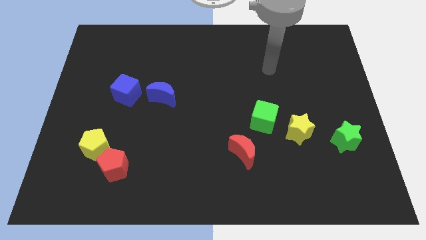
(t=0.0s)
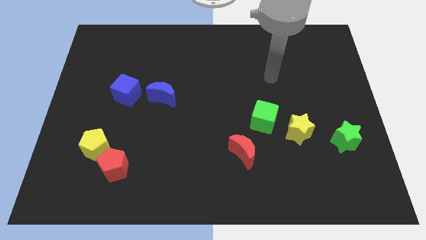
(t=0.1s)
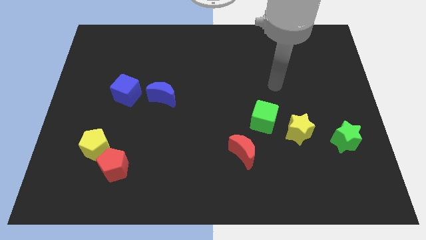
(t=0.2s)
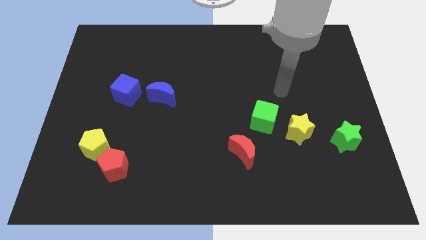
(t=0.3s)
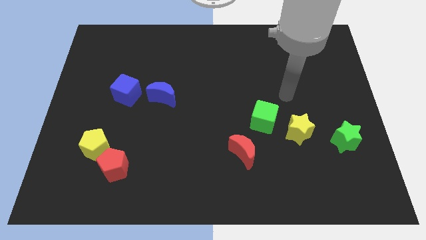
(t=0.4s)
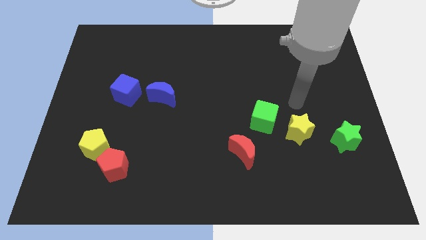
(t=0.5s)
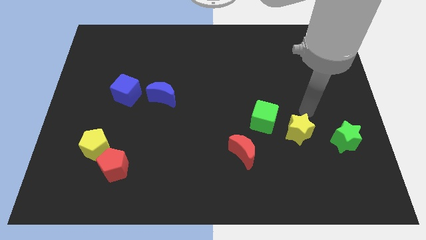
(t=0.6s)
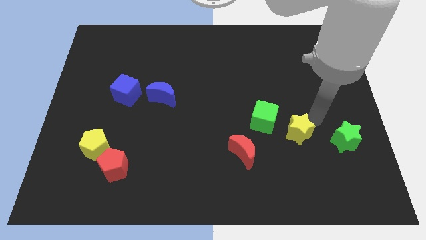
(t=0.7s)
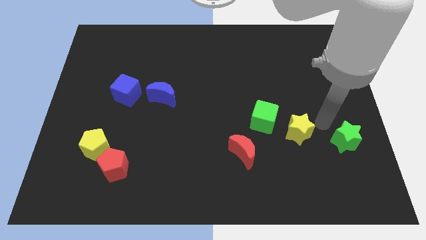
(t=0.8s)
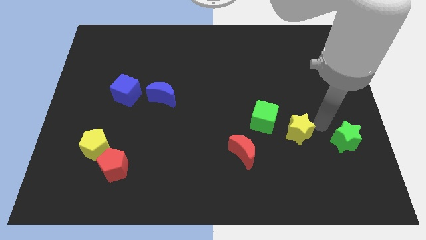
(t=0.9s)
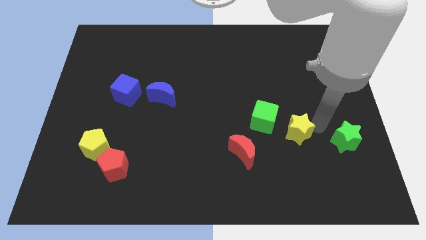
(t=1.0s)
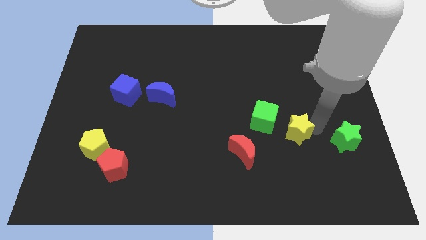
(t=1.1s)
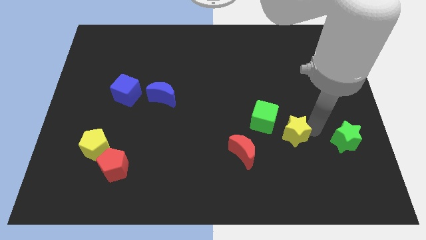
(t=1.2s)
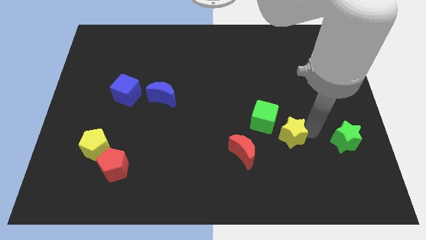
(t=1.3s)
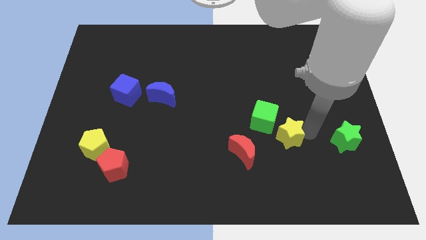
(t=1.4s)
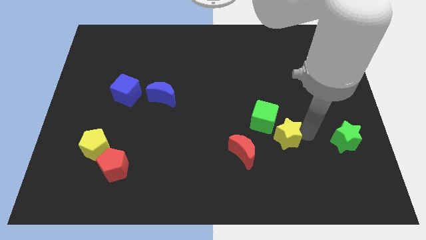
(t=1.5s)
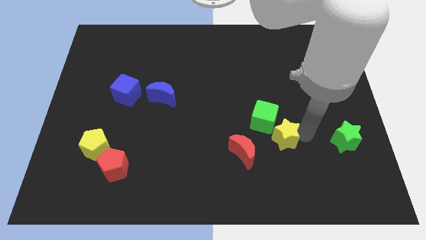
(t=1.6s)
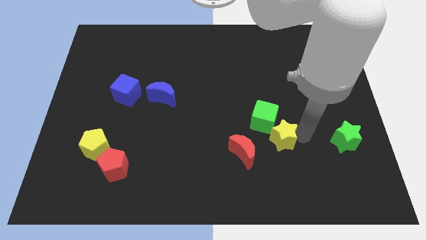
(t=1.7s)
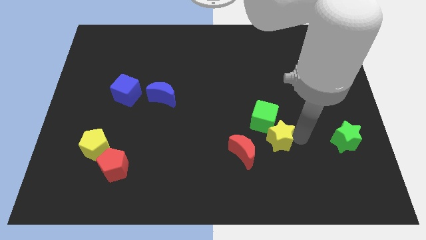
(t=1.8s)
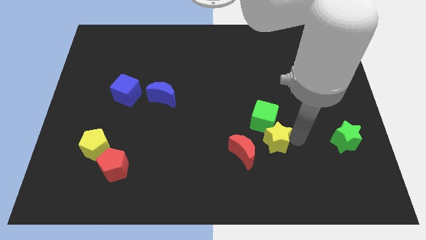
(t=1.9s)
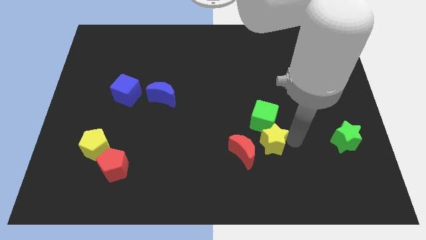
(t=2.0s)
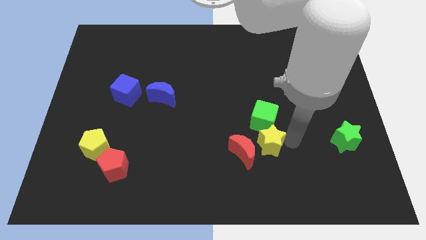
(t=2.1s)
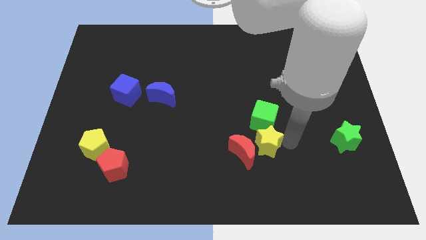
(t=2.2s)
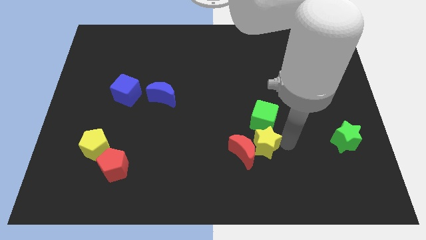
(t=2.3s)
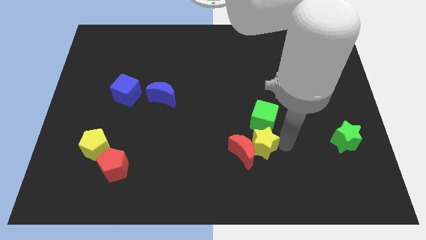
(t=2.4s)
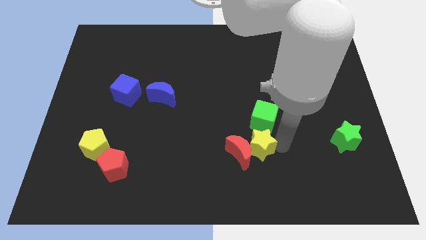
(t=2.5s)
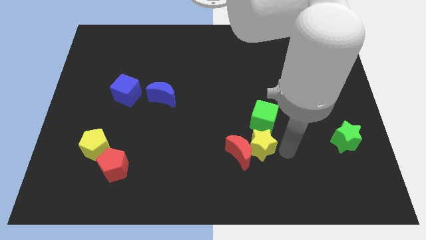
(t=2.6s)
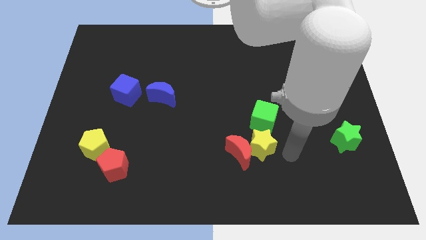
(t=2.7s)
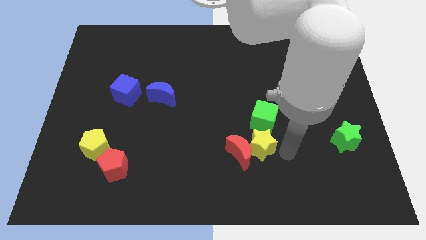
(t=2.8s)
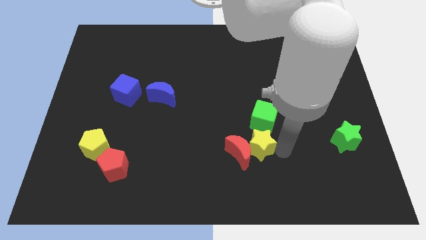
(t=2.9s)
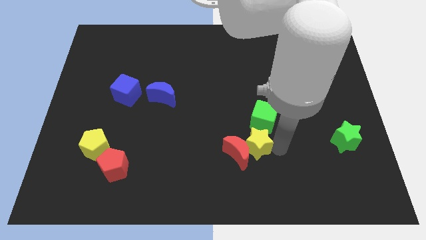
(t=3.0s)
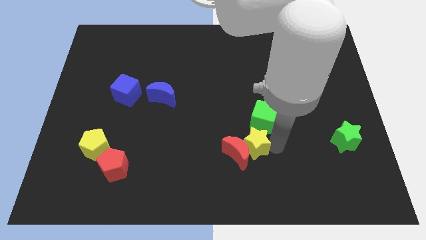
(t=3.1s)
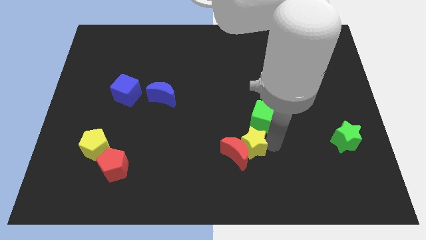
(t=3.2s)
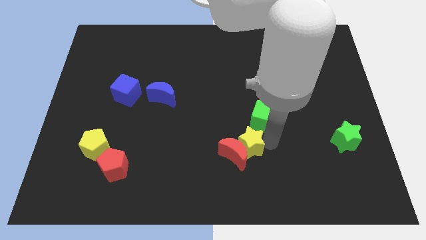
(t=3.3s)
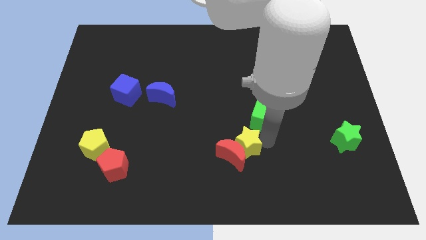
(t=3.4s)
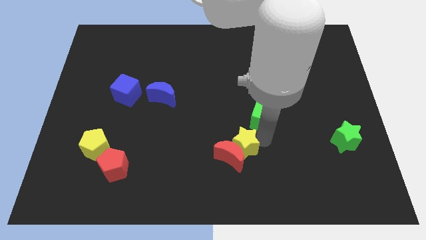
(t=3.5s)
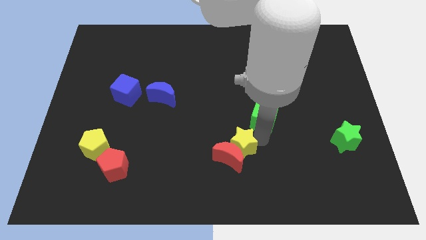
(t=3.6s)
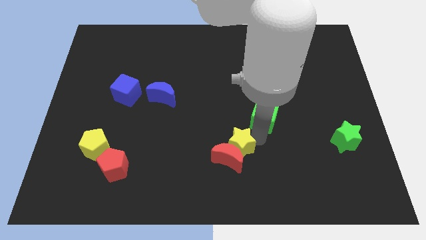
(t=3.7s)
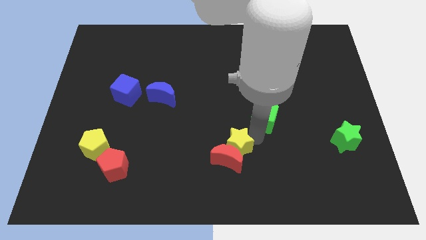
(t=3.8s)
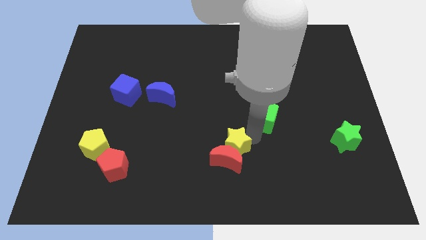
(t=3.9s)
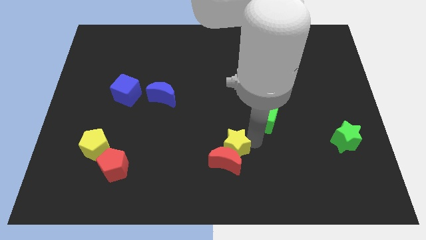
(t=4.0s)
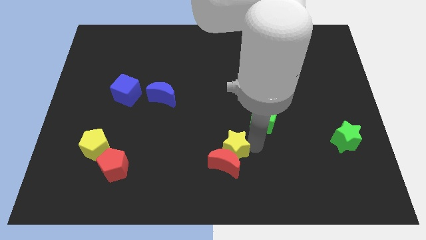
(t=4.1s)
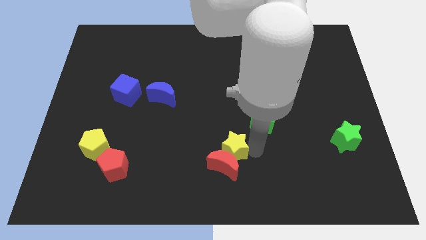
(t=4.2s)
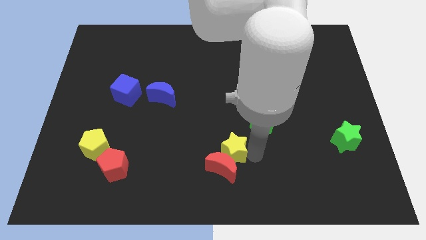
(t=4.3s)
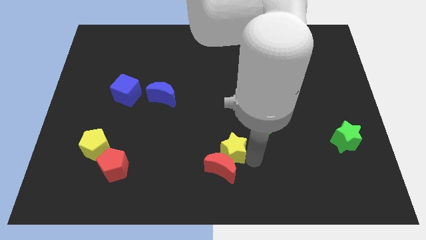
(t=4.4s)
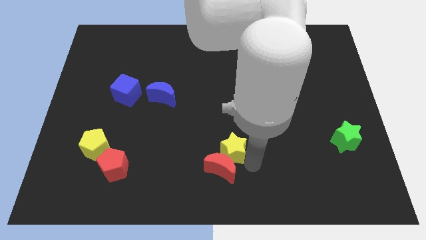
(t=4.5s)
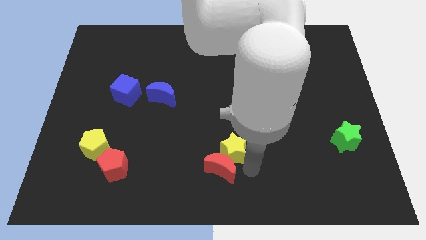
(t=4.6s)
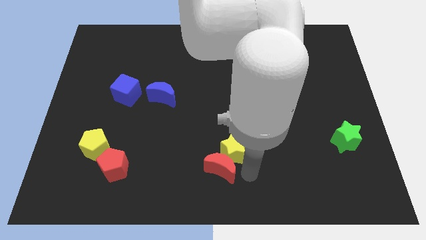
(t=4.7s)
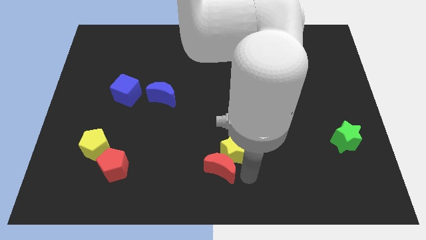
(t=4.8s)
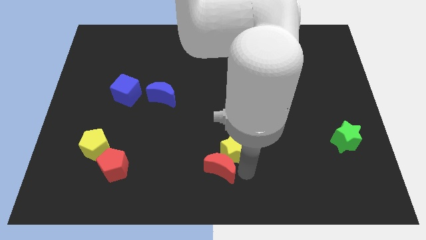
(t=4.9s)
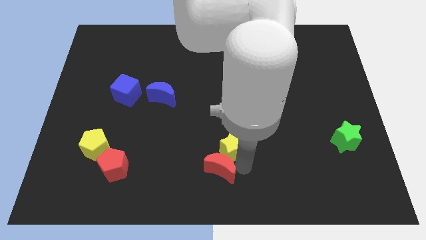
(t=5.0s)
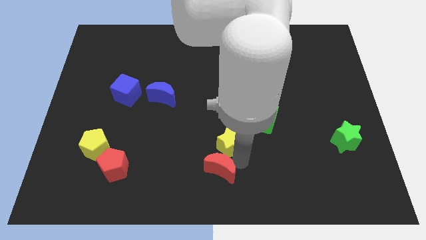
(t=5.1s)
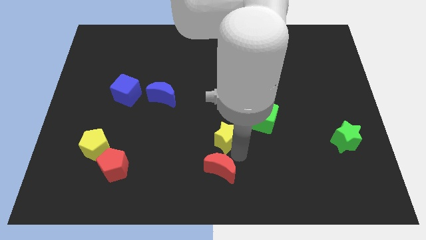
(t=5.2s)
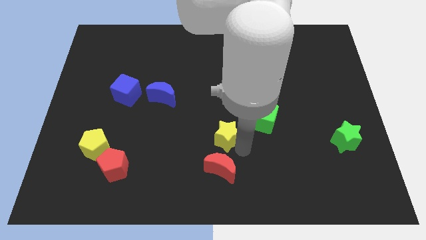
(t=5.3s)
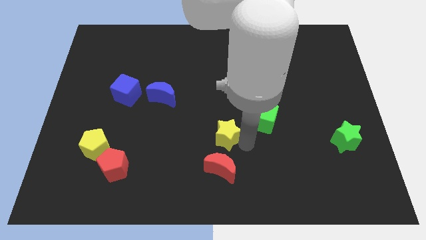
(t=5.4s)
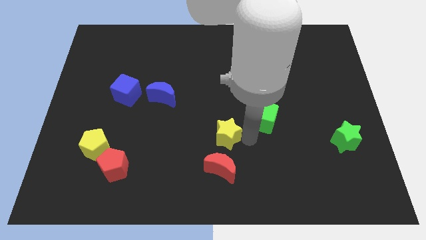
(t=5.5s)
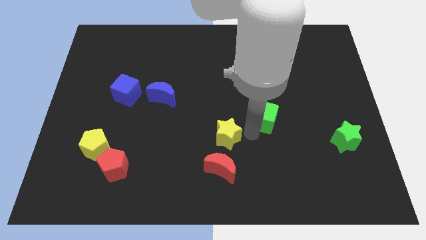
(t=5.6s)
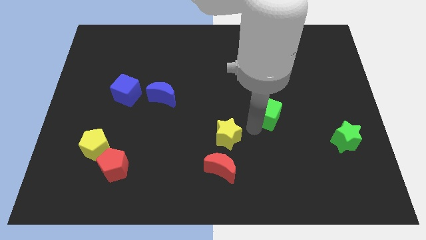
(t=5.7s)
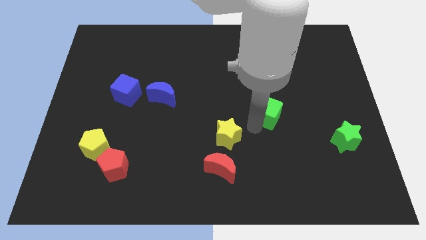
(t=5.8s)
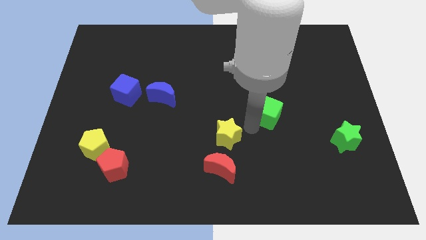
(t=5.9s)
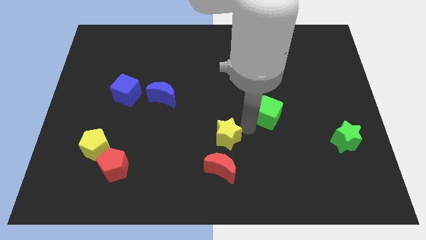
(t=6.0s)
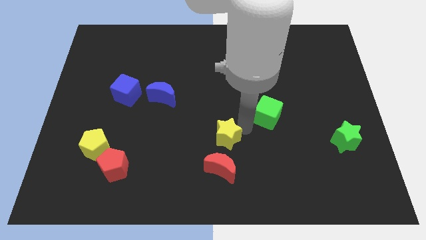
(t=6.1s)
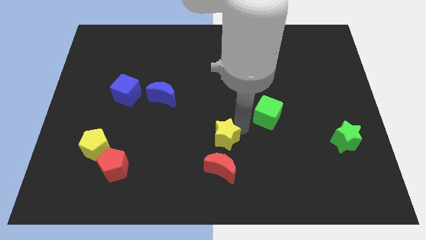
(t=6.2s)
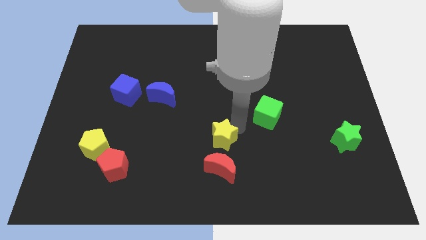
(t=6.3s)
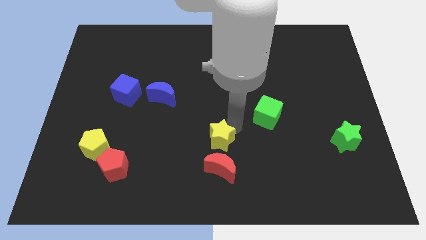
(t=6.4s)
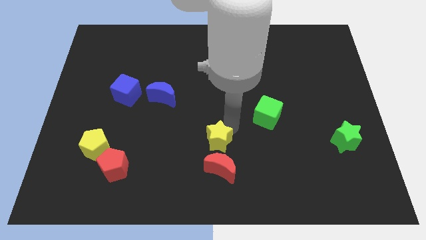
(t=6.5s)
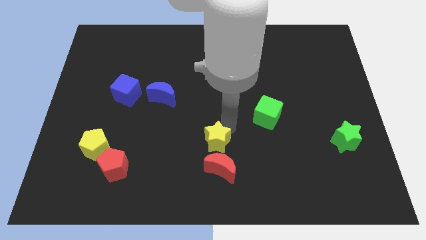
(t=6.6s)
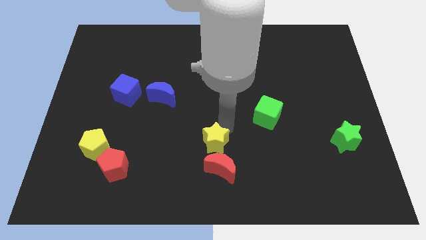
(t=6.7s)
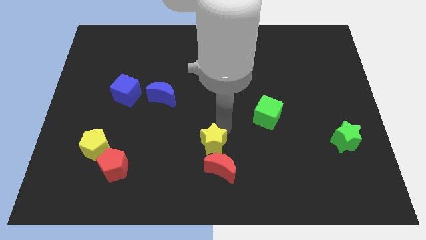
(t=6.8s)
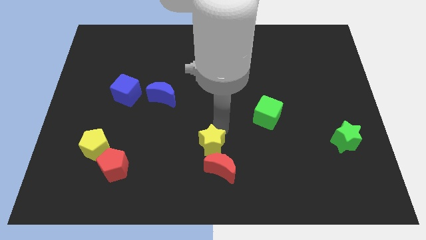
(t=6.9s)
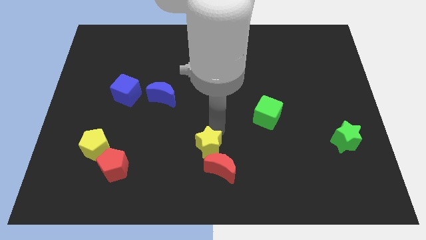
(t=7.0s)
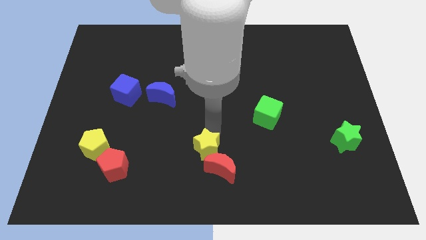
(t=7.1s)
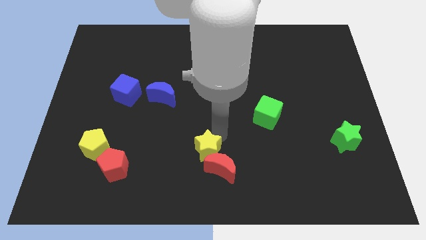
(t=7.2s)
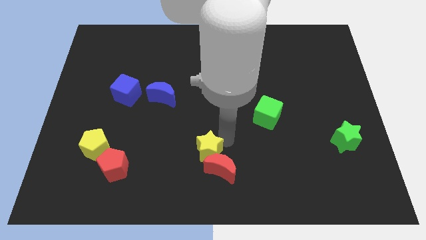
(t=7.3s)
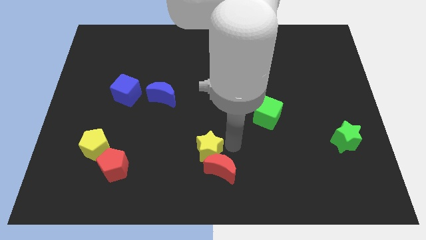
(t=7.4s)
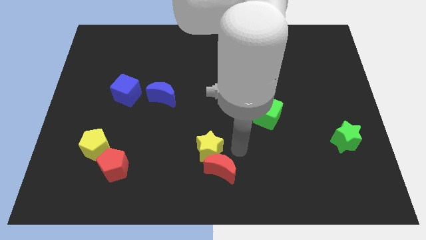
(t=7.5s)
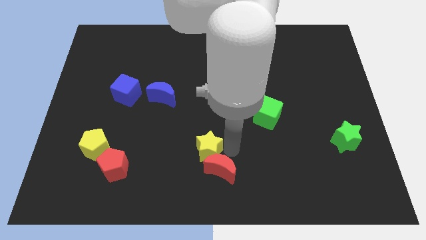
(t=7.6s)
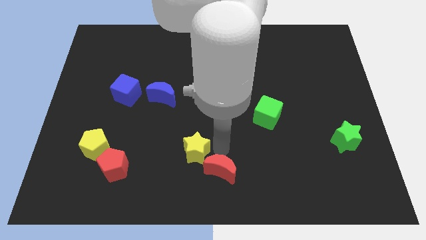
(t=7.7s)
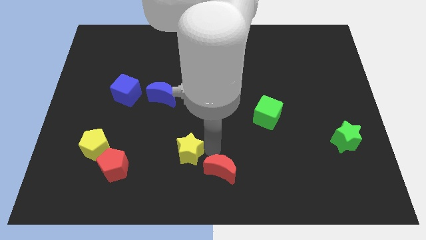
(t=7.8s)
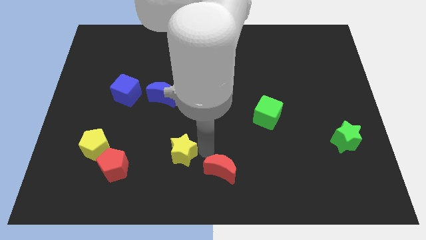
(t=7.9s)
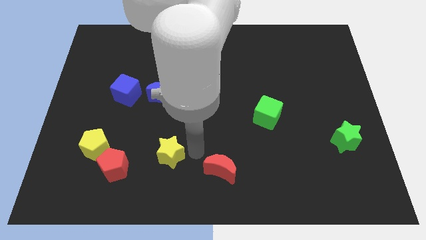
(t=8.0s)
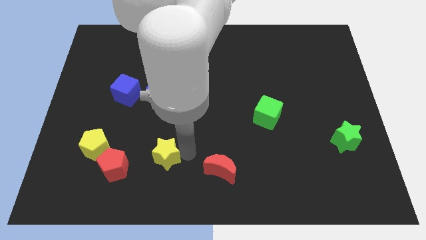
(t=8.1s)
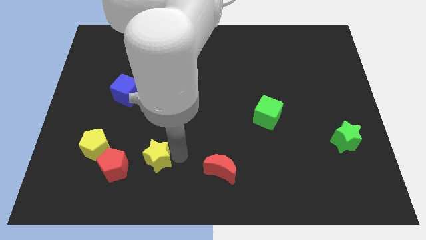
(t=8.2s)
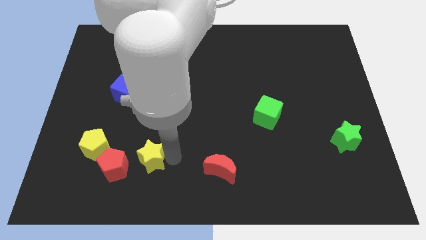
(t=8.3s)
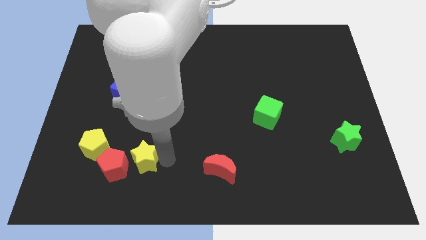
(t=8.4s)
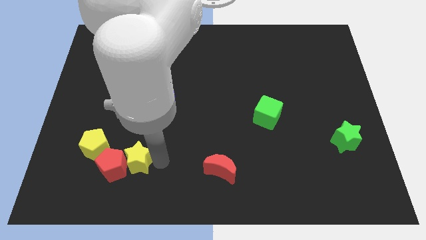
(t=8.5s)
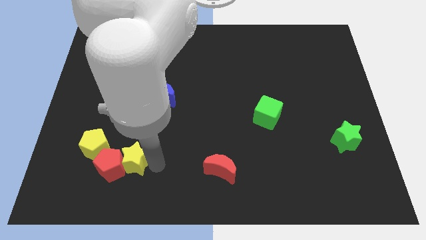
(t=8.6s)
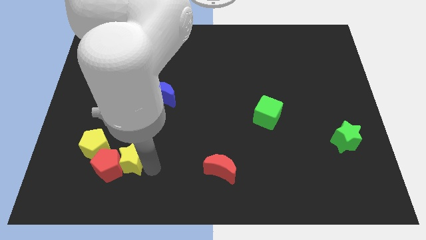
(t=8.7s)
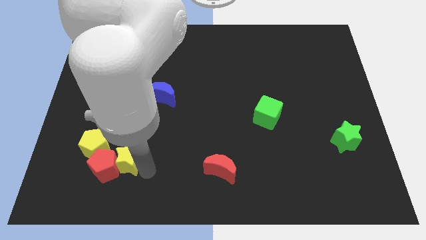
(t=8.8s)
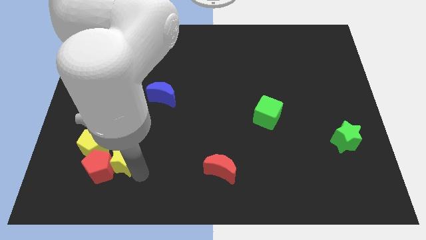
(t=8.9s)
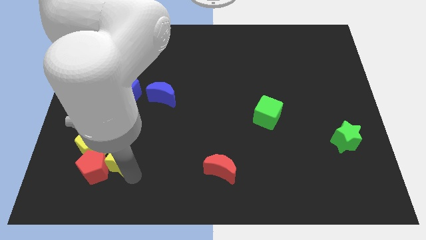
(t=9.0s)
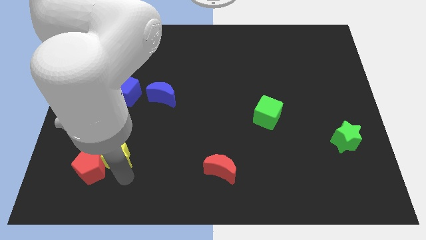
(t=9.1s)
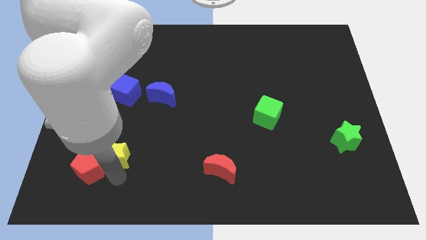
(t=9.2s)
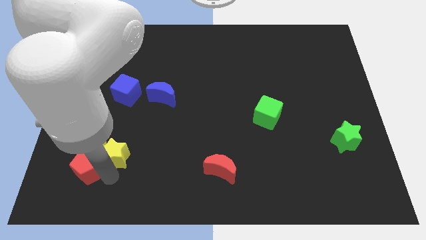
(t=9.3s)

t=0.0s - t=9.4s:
put the yellow star to the yellow pentagon
